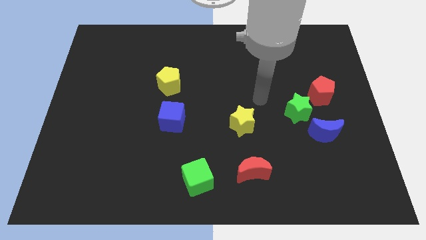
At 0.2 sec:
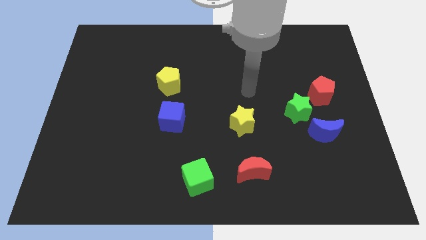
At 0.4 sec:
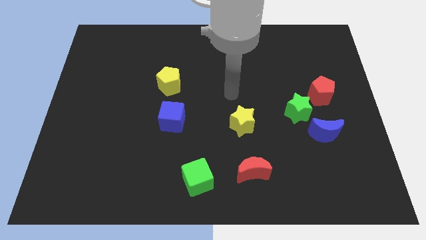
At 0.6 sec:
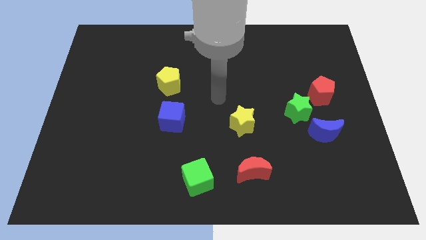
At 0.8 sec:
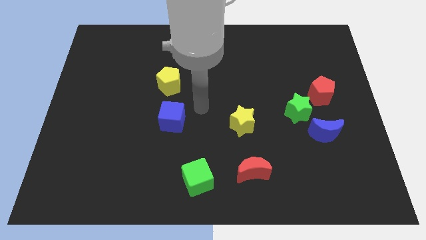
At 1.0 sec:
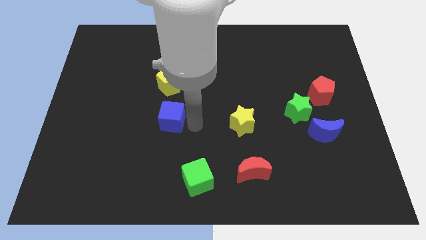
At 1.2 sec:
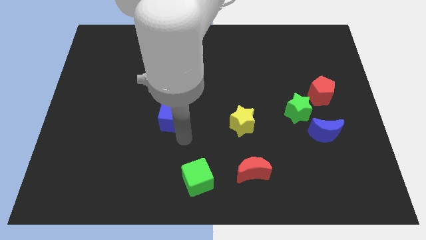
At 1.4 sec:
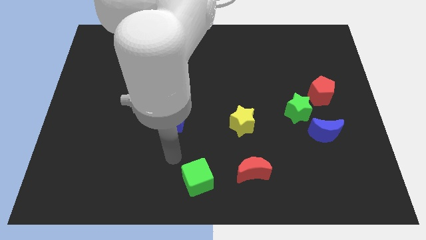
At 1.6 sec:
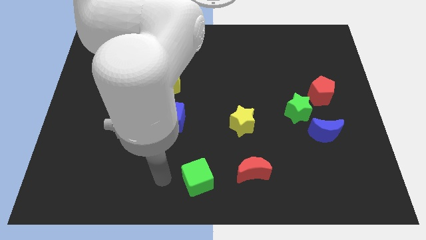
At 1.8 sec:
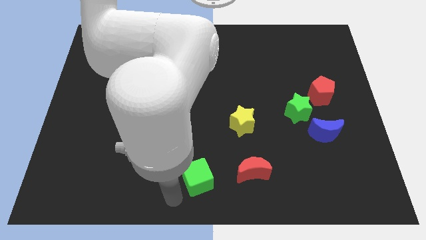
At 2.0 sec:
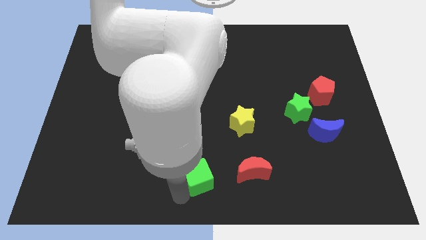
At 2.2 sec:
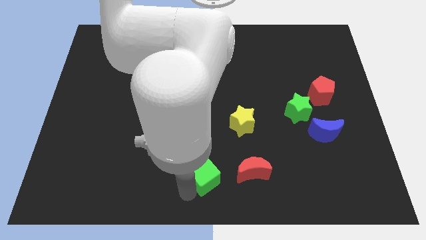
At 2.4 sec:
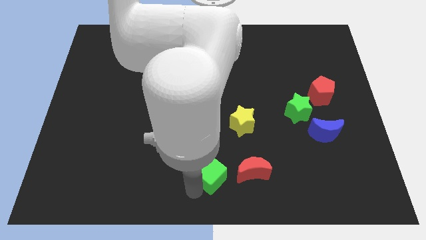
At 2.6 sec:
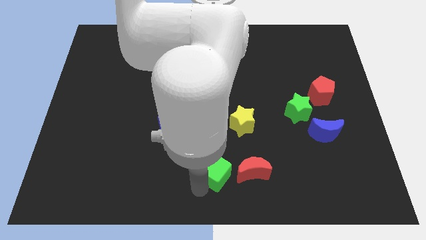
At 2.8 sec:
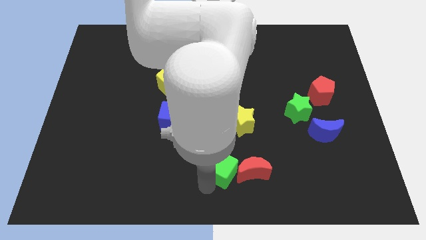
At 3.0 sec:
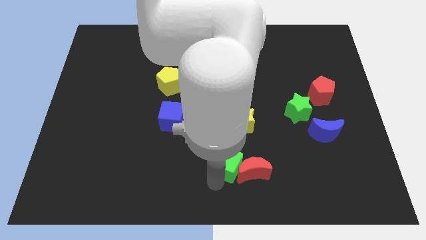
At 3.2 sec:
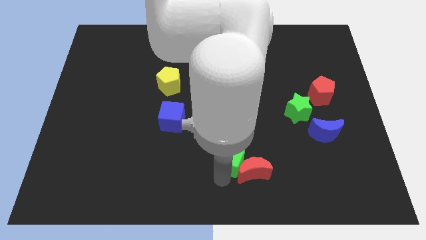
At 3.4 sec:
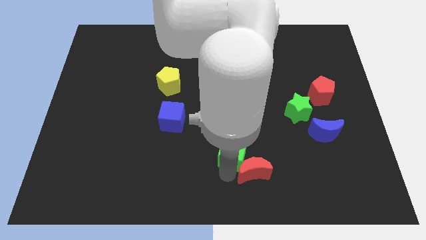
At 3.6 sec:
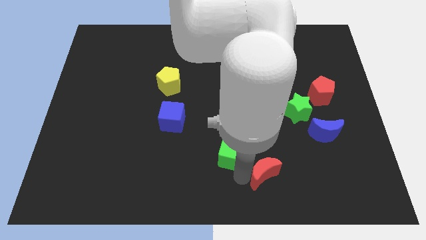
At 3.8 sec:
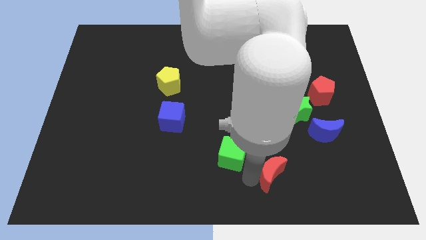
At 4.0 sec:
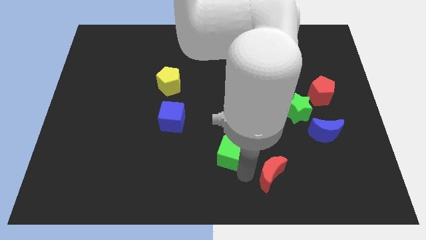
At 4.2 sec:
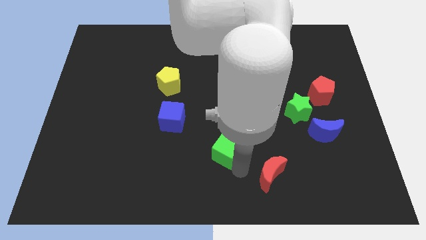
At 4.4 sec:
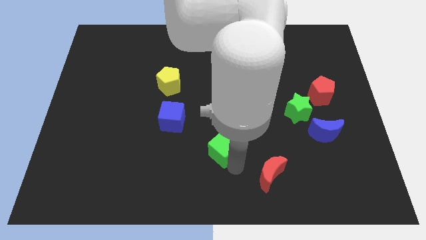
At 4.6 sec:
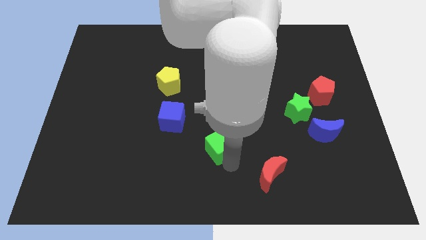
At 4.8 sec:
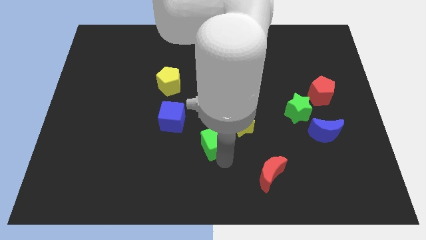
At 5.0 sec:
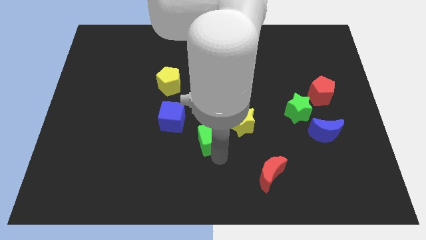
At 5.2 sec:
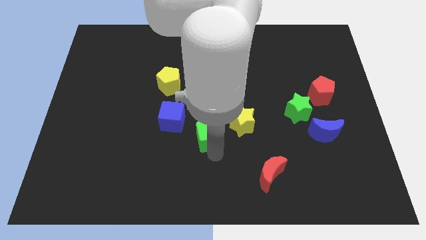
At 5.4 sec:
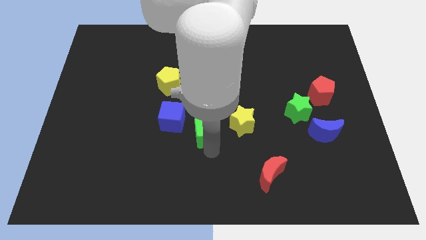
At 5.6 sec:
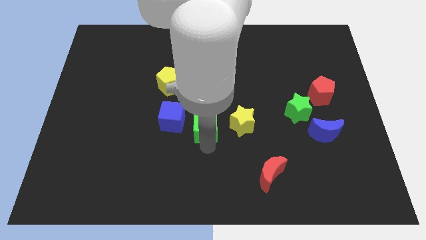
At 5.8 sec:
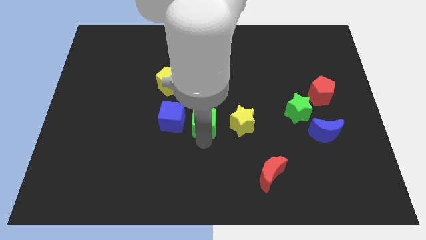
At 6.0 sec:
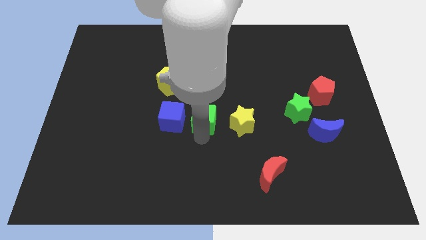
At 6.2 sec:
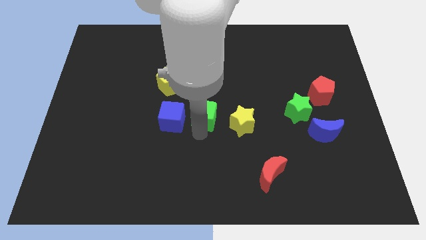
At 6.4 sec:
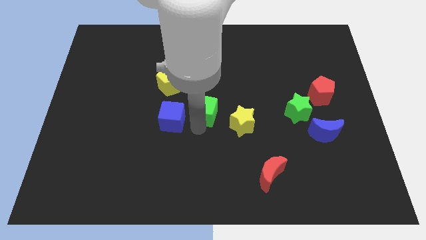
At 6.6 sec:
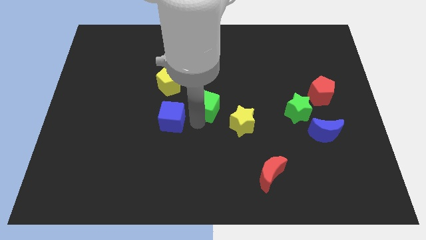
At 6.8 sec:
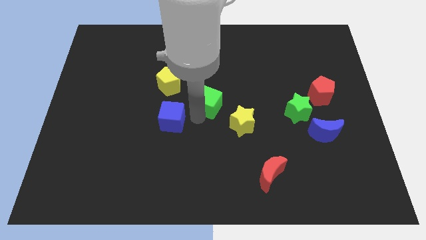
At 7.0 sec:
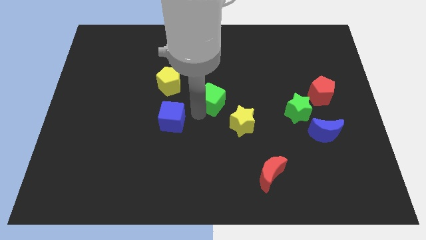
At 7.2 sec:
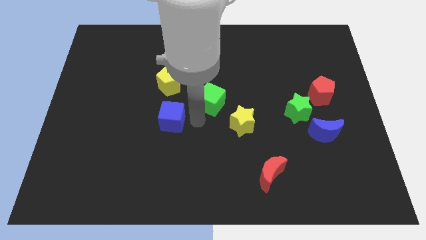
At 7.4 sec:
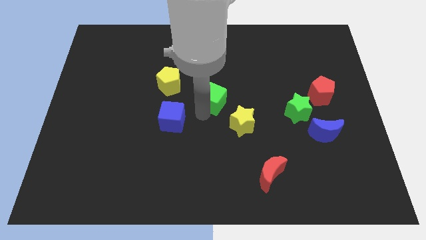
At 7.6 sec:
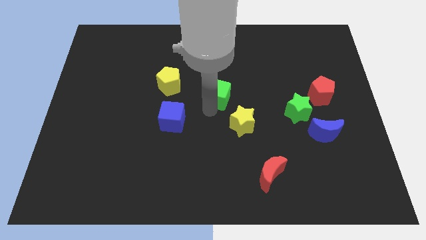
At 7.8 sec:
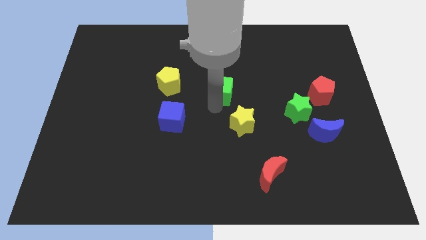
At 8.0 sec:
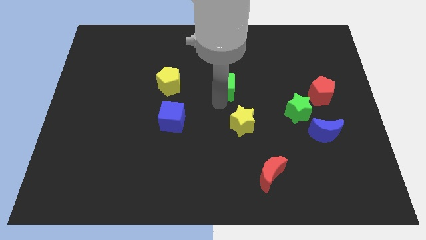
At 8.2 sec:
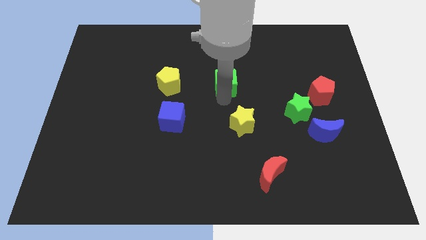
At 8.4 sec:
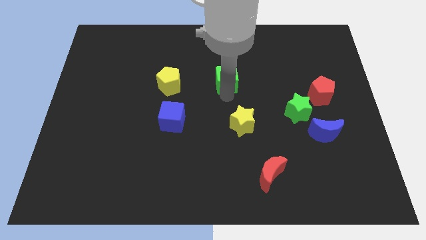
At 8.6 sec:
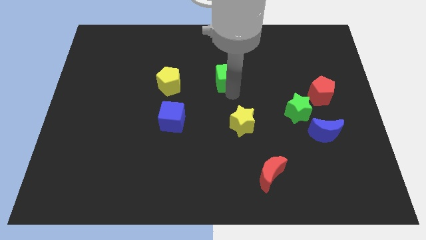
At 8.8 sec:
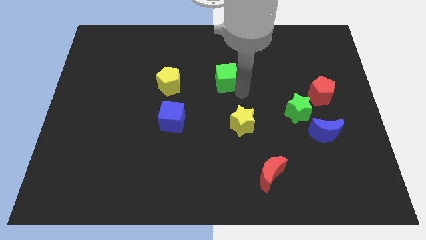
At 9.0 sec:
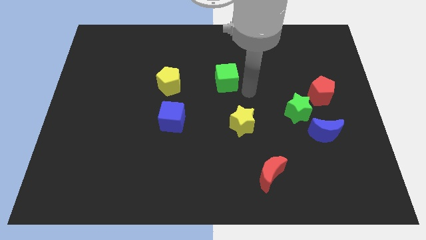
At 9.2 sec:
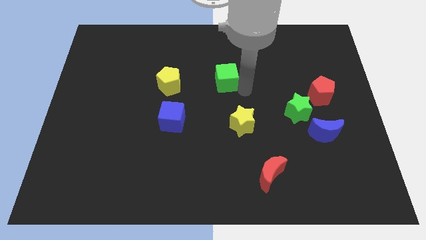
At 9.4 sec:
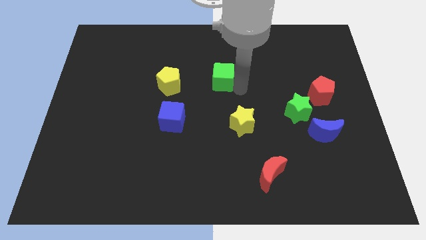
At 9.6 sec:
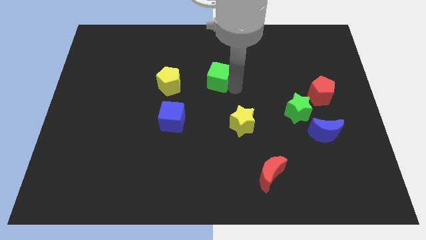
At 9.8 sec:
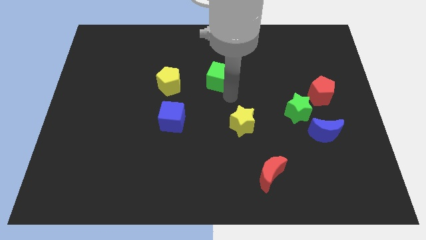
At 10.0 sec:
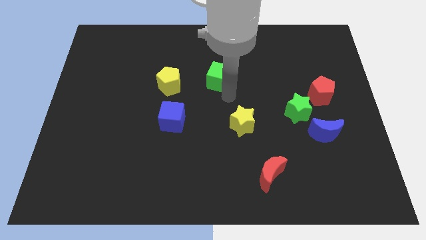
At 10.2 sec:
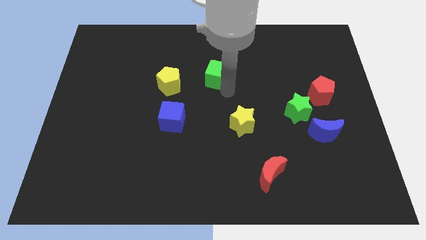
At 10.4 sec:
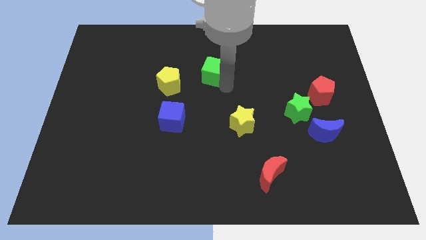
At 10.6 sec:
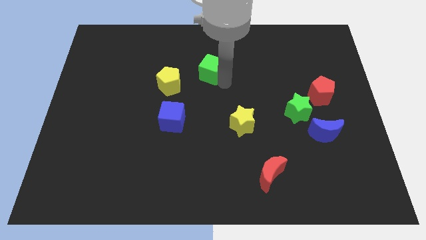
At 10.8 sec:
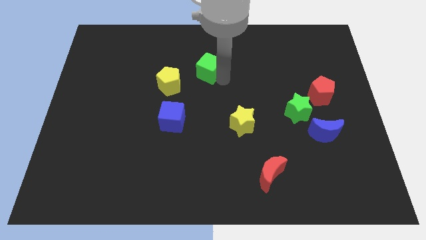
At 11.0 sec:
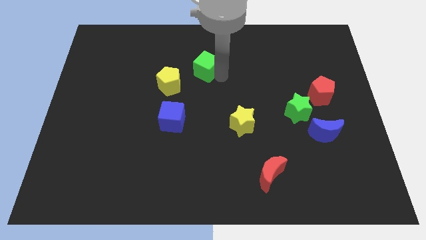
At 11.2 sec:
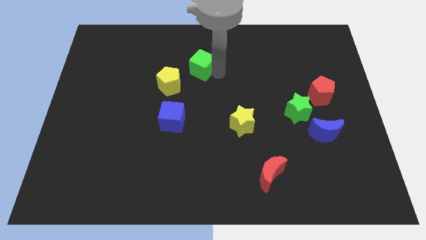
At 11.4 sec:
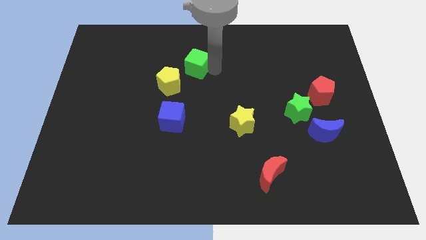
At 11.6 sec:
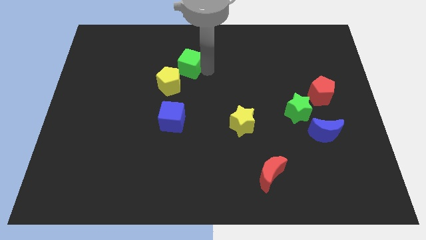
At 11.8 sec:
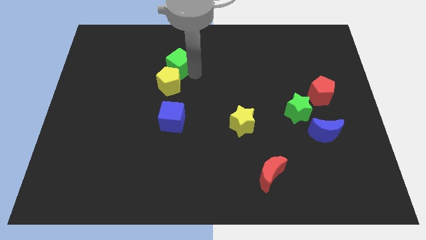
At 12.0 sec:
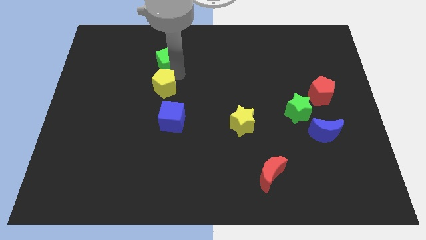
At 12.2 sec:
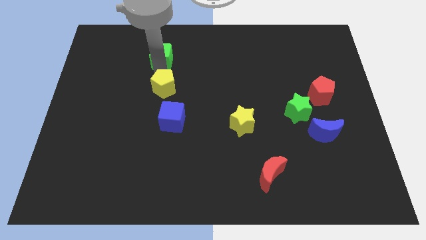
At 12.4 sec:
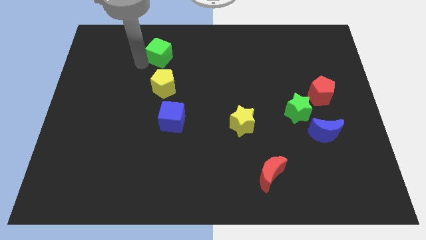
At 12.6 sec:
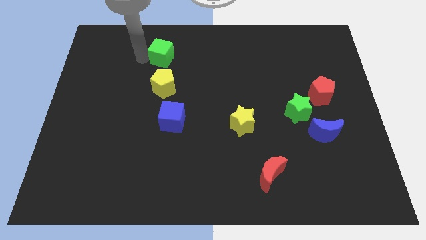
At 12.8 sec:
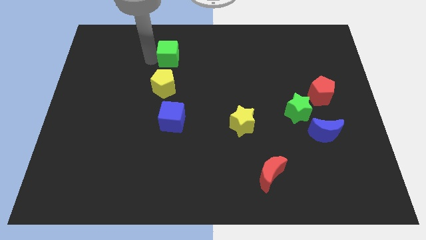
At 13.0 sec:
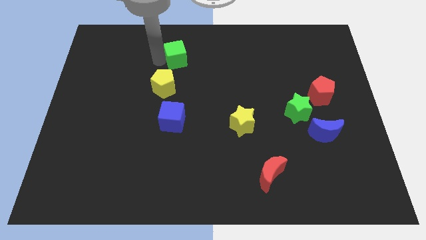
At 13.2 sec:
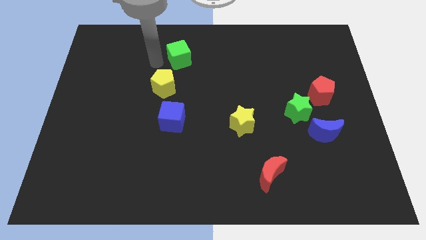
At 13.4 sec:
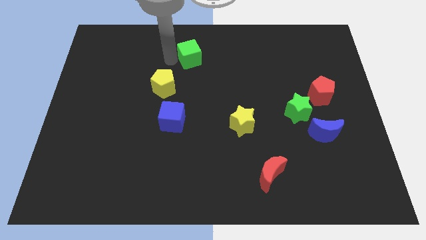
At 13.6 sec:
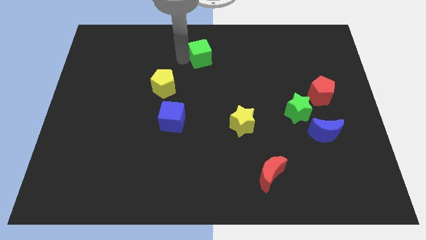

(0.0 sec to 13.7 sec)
push the green cube to the top side
